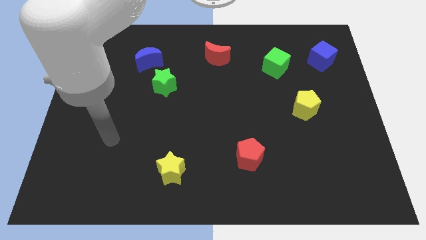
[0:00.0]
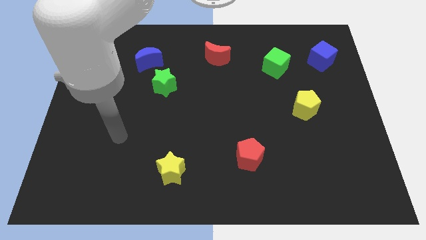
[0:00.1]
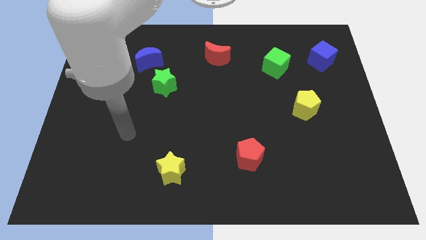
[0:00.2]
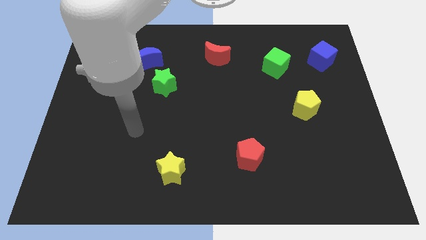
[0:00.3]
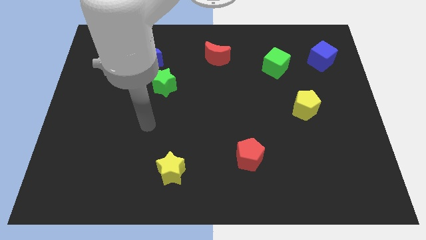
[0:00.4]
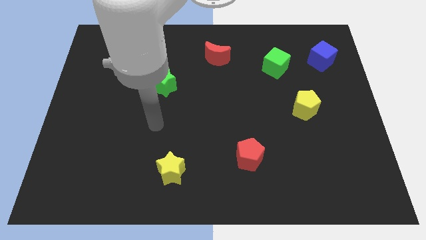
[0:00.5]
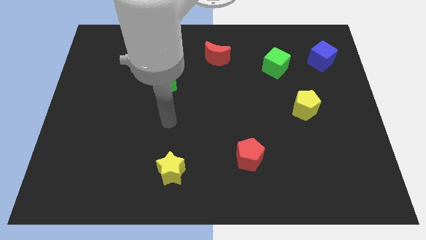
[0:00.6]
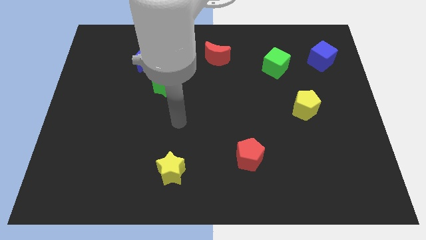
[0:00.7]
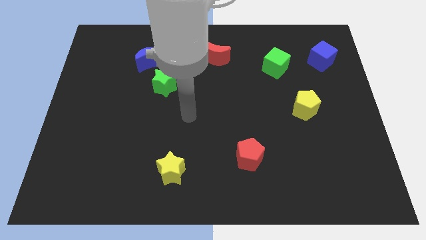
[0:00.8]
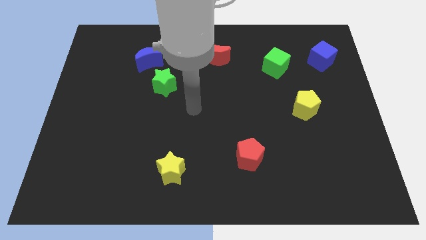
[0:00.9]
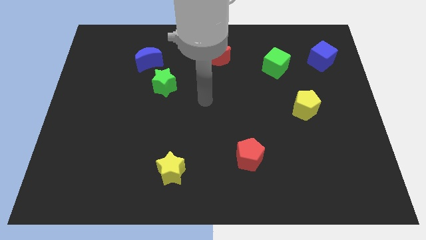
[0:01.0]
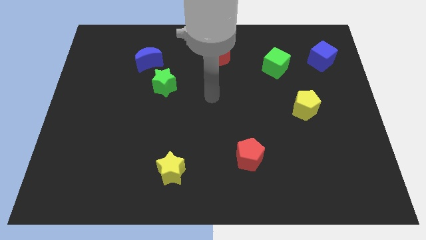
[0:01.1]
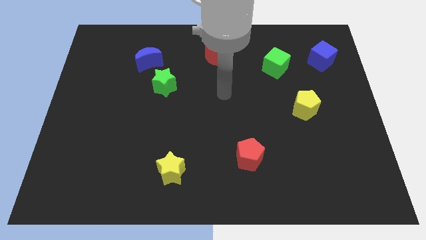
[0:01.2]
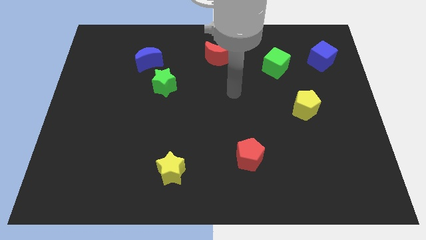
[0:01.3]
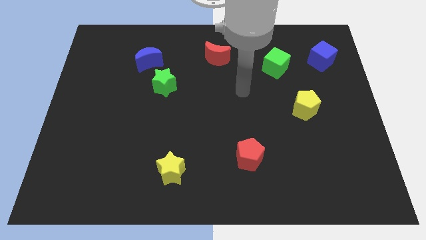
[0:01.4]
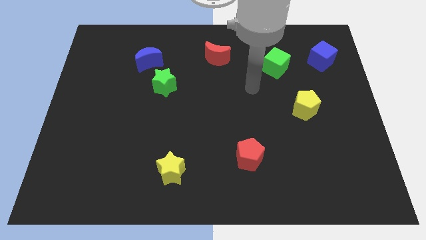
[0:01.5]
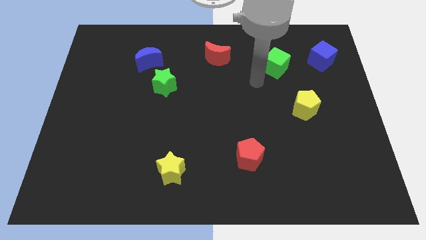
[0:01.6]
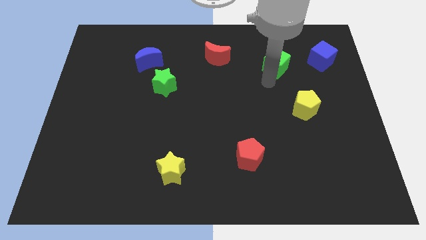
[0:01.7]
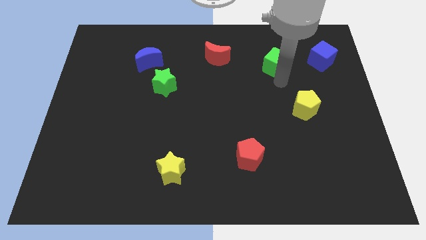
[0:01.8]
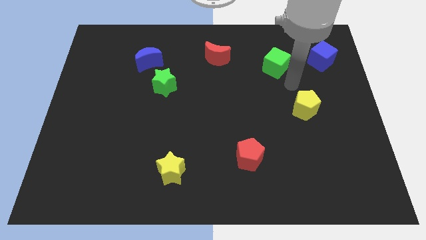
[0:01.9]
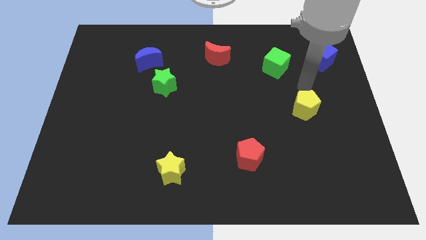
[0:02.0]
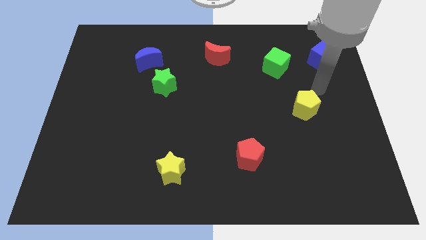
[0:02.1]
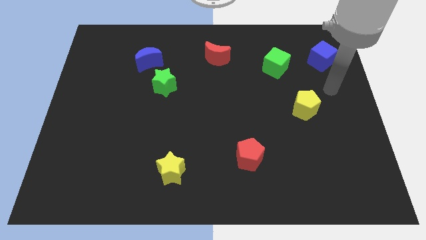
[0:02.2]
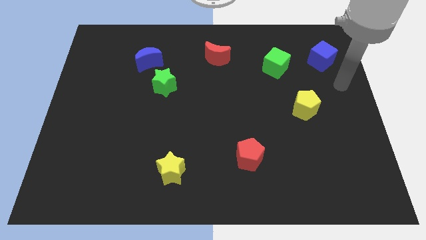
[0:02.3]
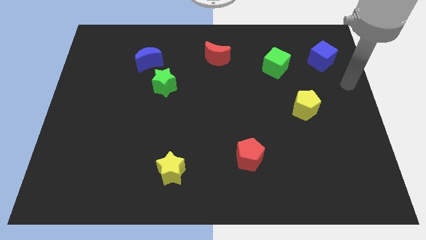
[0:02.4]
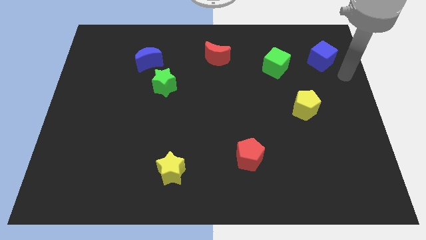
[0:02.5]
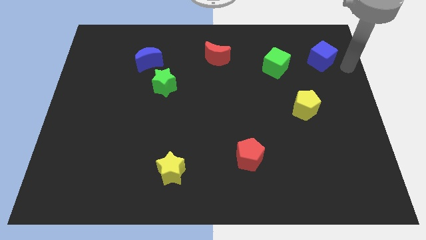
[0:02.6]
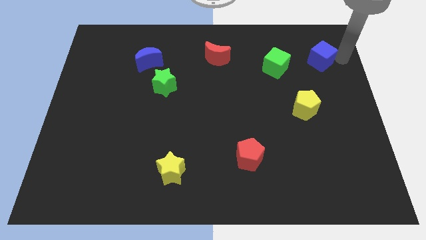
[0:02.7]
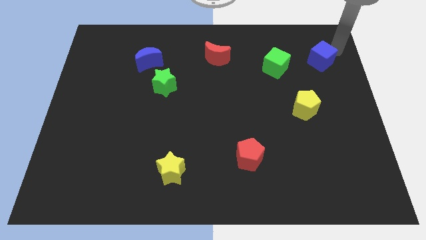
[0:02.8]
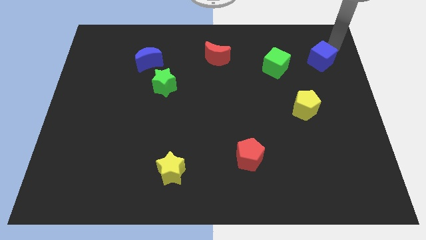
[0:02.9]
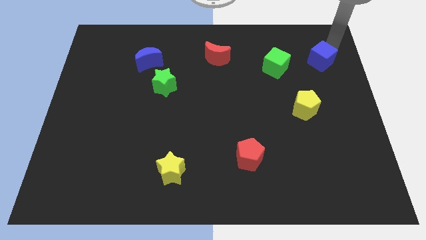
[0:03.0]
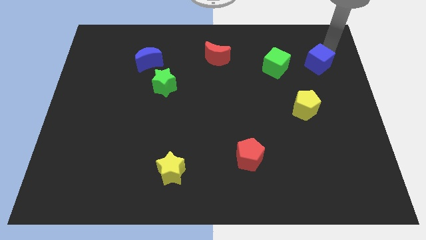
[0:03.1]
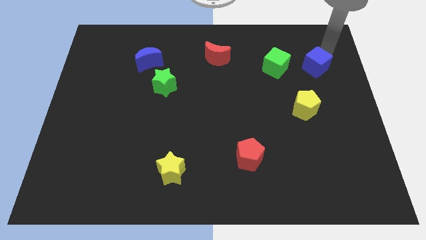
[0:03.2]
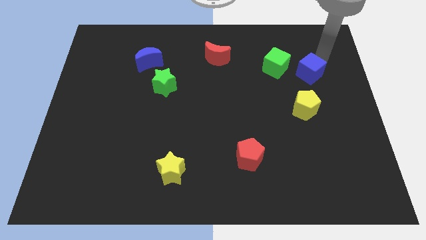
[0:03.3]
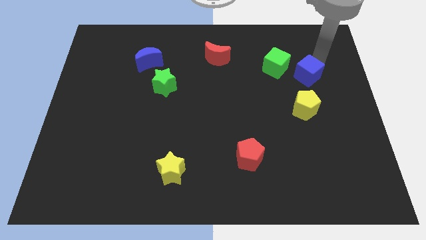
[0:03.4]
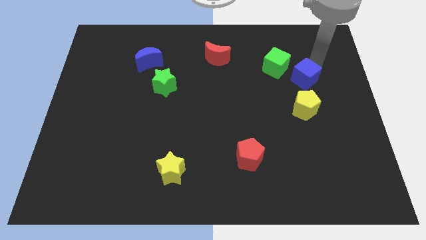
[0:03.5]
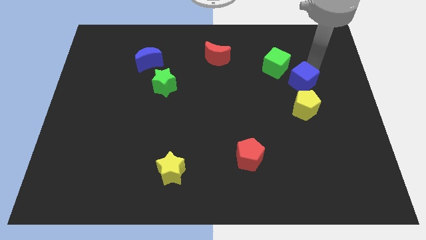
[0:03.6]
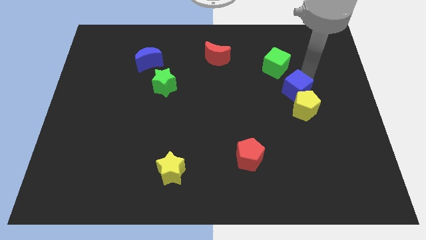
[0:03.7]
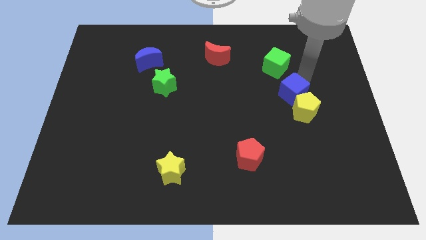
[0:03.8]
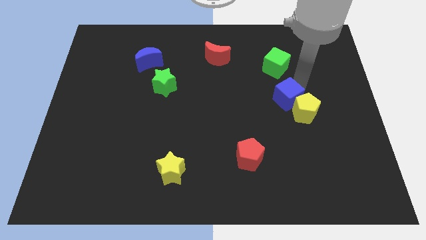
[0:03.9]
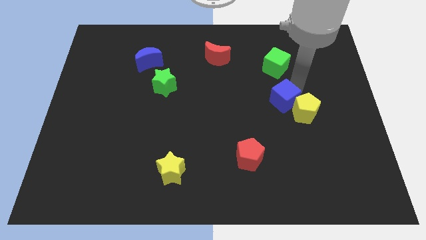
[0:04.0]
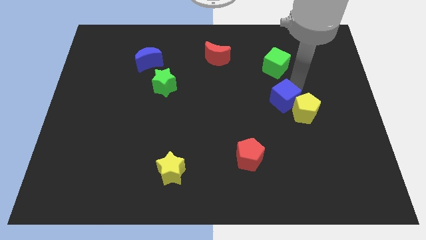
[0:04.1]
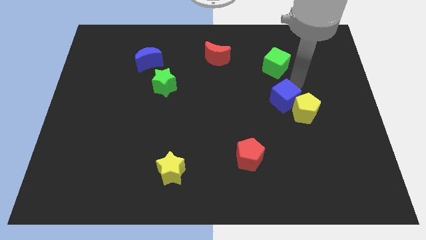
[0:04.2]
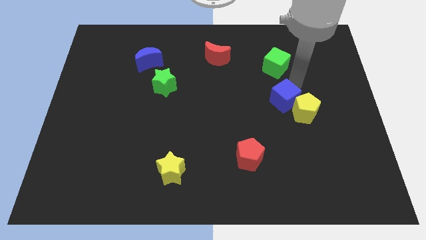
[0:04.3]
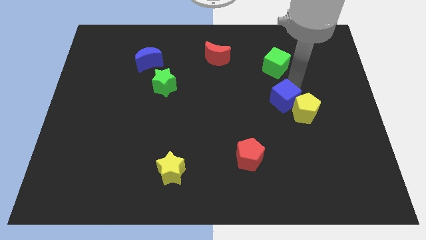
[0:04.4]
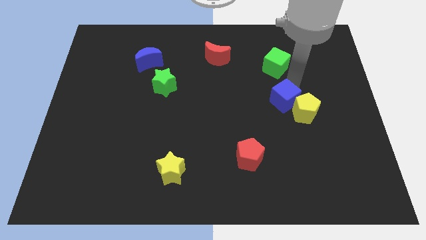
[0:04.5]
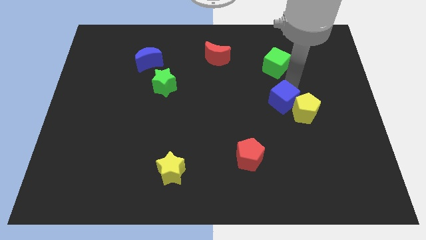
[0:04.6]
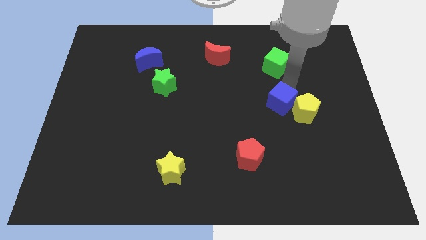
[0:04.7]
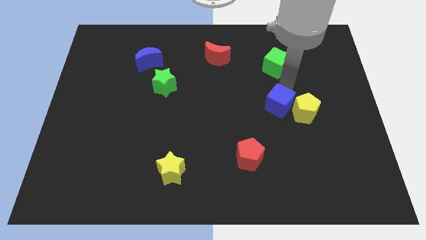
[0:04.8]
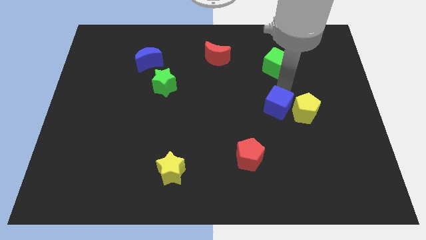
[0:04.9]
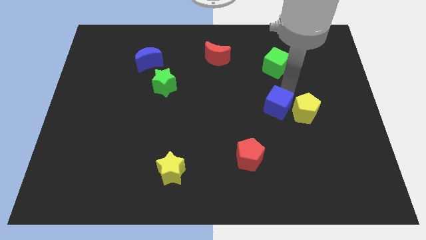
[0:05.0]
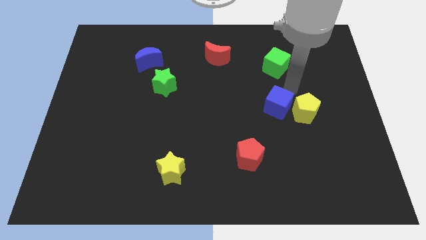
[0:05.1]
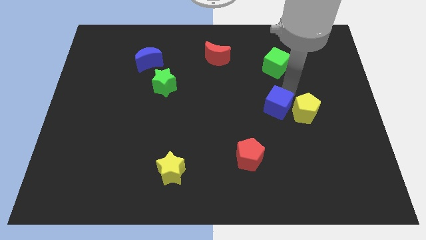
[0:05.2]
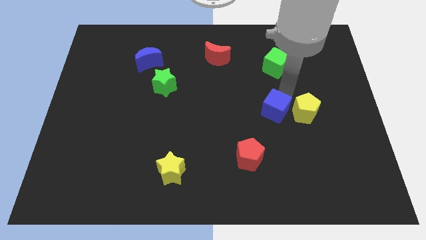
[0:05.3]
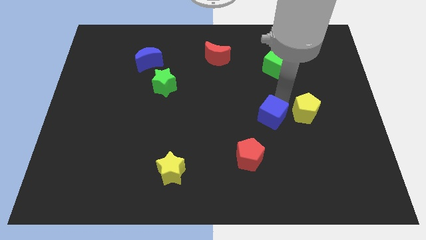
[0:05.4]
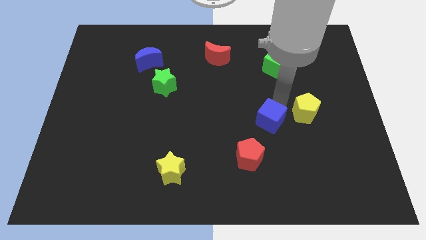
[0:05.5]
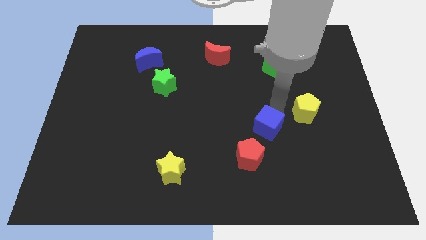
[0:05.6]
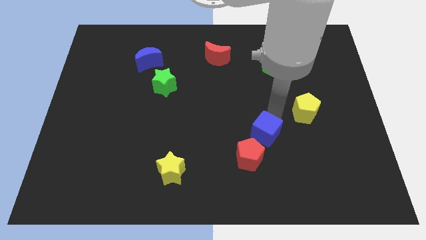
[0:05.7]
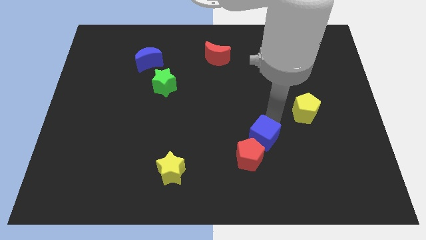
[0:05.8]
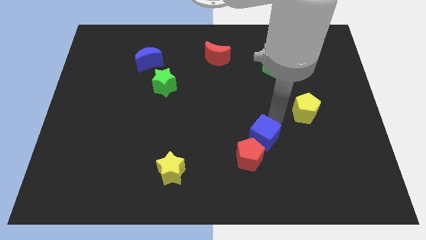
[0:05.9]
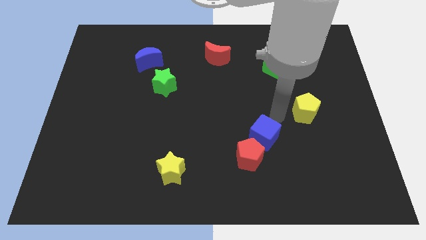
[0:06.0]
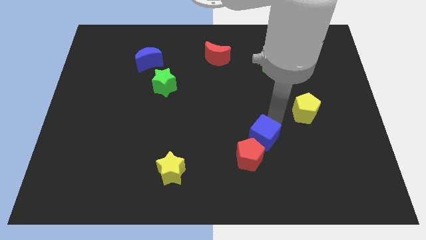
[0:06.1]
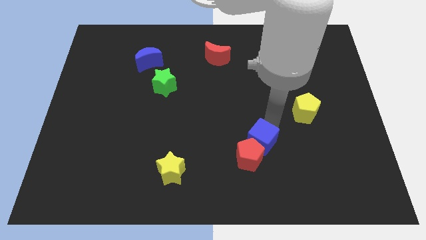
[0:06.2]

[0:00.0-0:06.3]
put the blue cube next to the red pentagon

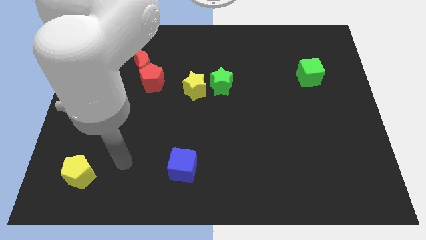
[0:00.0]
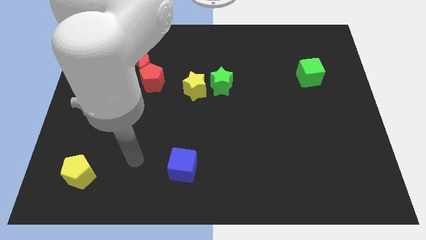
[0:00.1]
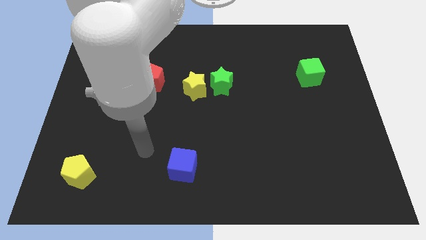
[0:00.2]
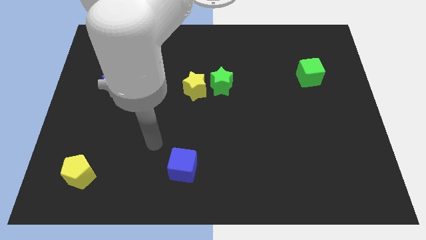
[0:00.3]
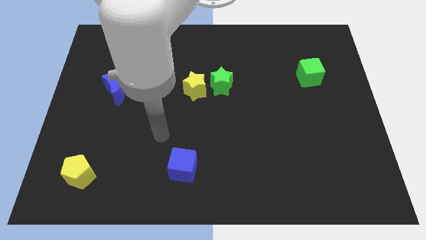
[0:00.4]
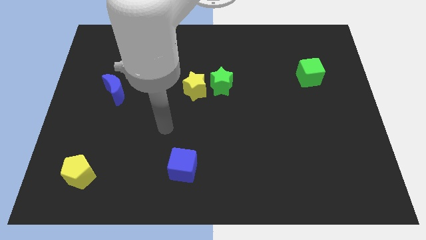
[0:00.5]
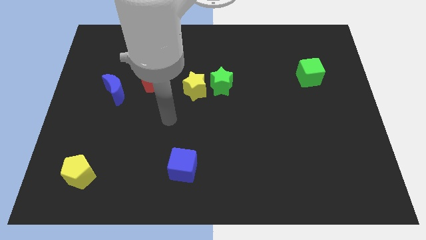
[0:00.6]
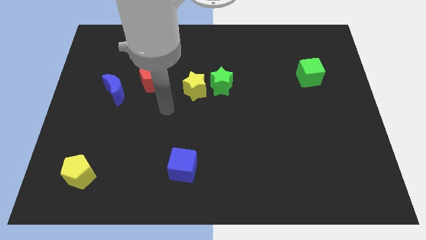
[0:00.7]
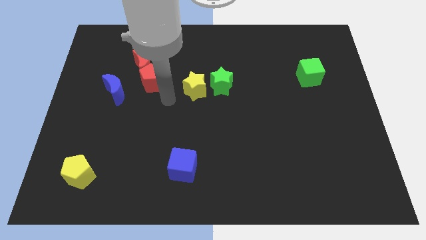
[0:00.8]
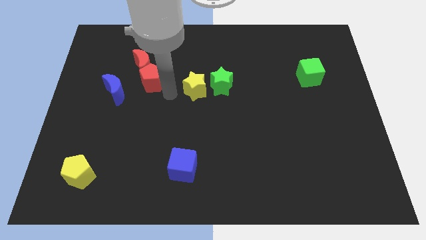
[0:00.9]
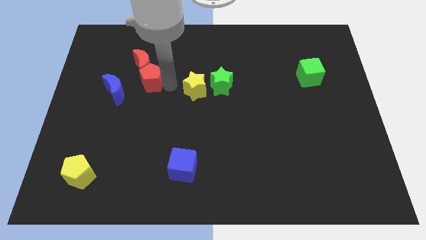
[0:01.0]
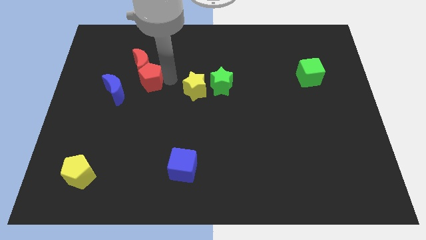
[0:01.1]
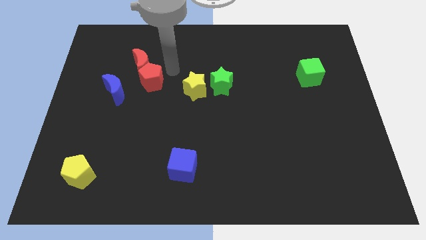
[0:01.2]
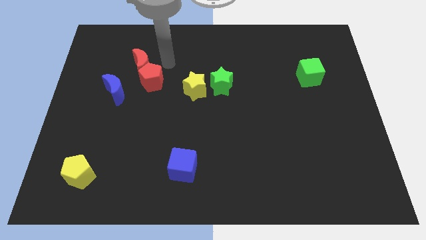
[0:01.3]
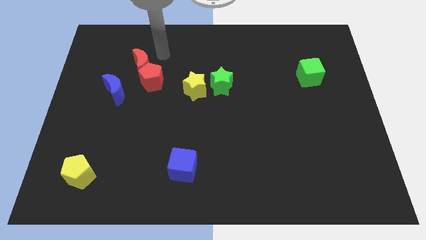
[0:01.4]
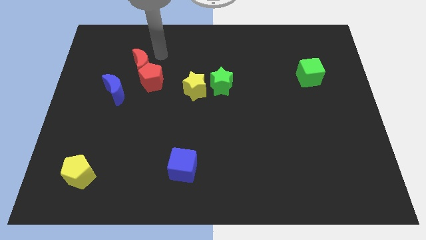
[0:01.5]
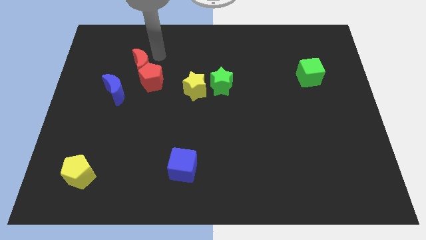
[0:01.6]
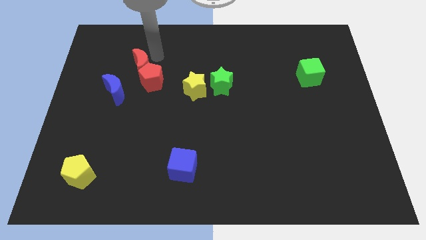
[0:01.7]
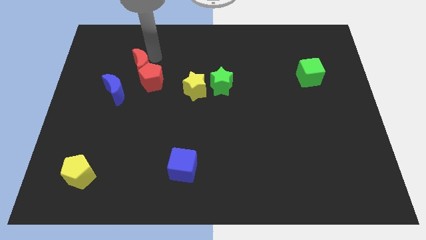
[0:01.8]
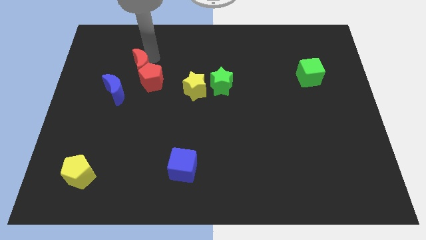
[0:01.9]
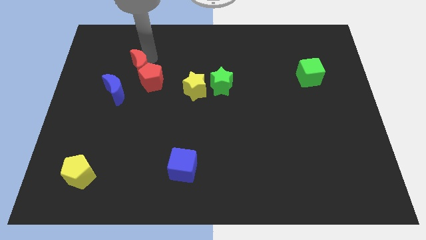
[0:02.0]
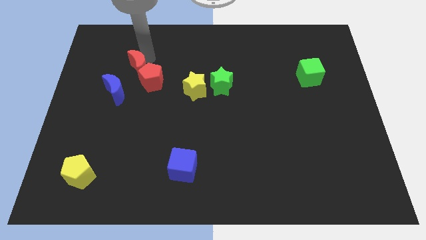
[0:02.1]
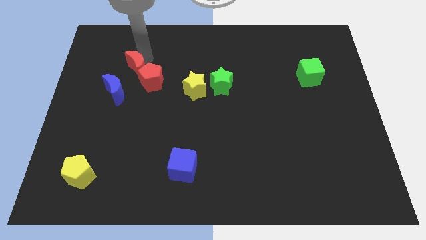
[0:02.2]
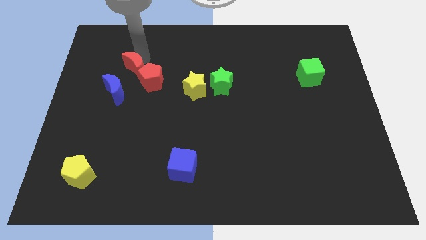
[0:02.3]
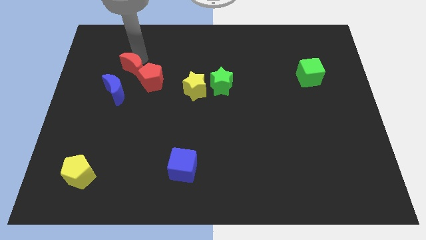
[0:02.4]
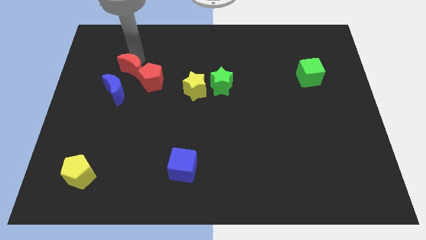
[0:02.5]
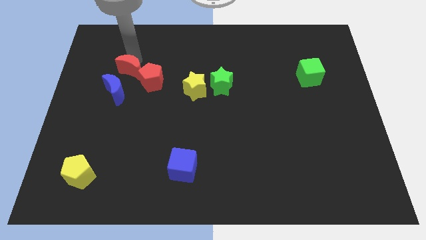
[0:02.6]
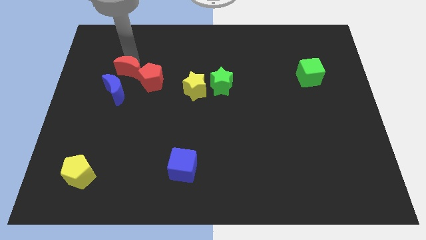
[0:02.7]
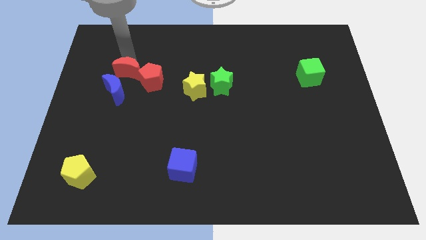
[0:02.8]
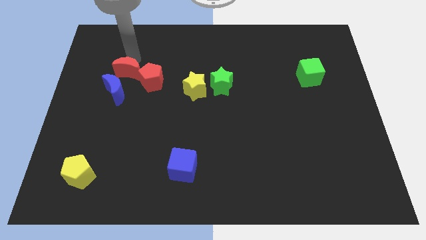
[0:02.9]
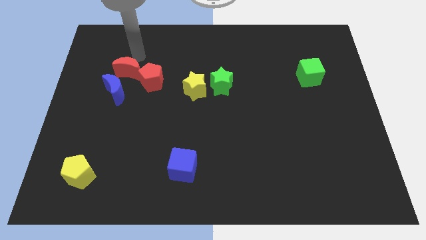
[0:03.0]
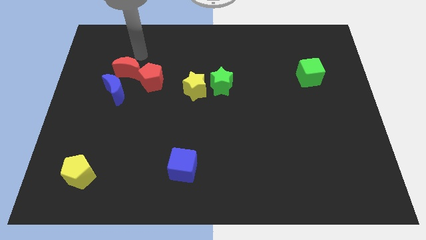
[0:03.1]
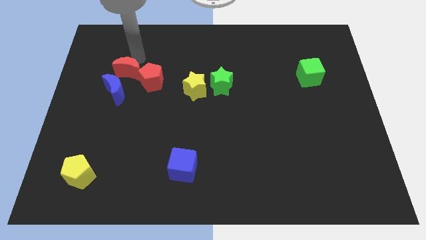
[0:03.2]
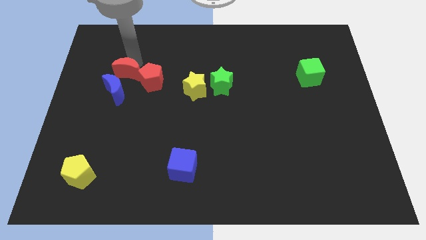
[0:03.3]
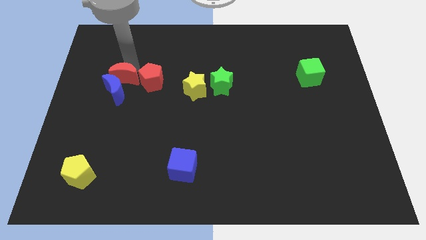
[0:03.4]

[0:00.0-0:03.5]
move the red moon close to the blue moon
